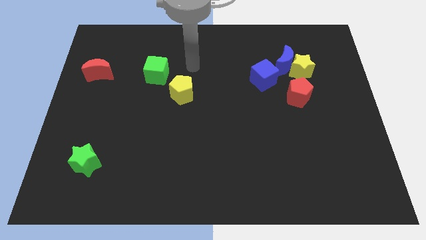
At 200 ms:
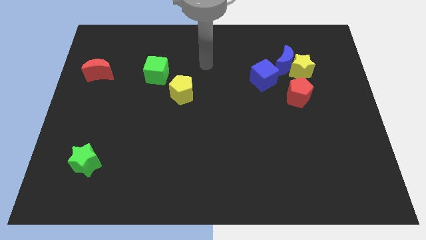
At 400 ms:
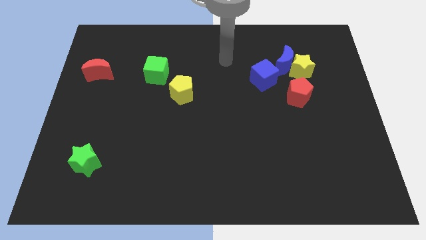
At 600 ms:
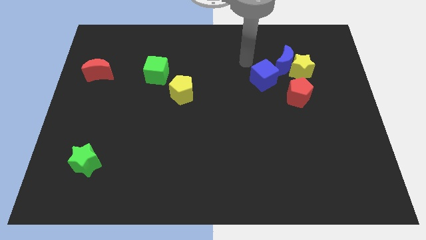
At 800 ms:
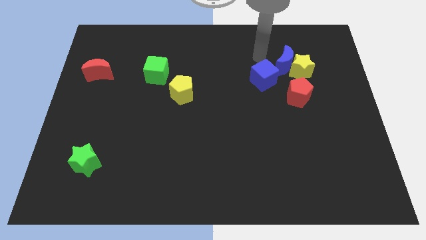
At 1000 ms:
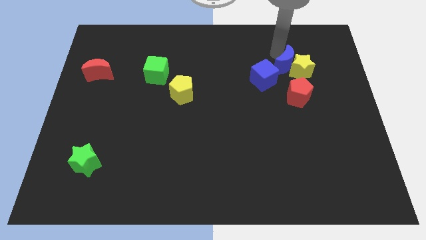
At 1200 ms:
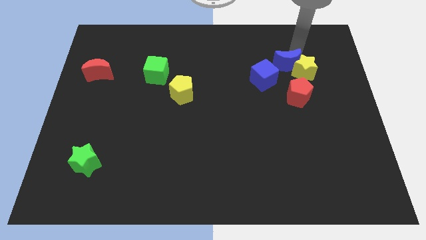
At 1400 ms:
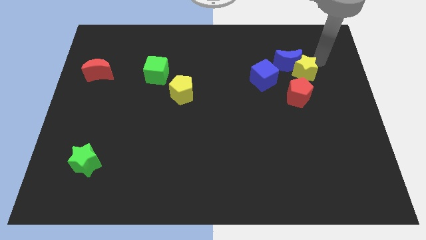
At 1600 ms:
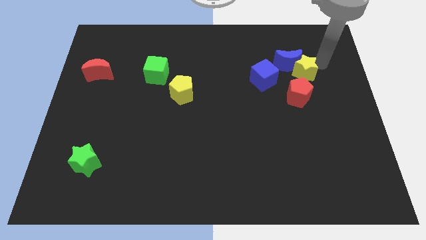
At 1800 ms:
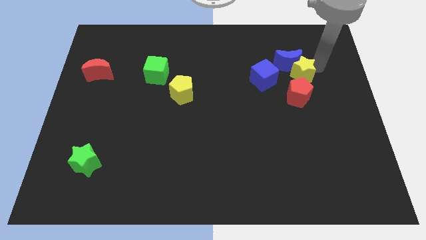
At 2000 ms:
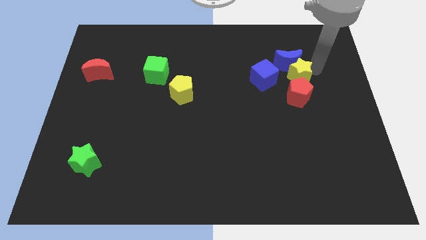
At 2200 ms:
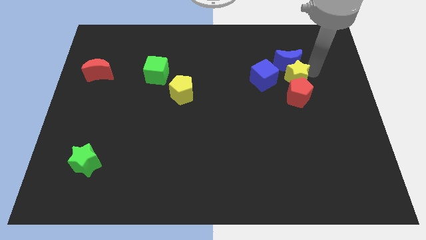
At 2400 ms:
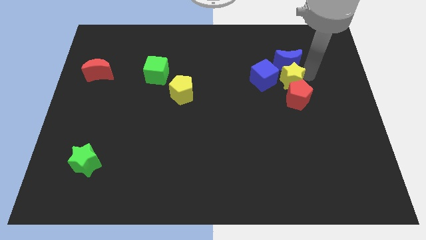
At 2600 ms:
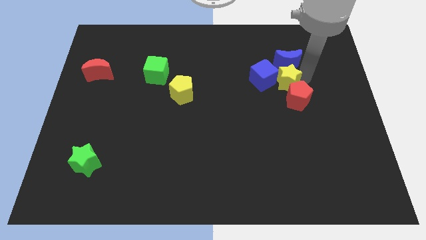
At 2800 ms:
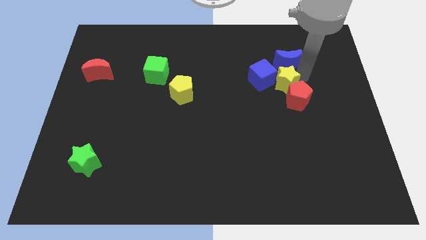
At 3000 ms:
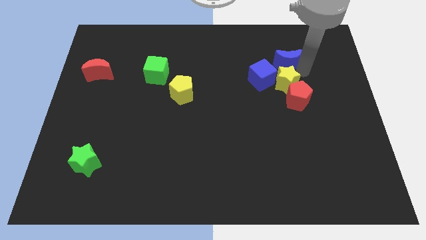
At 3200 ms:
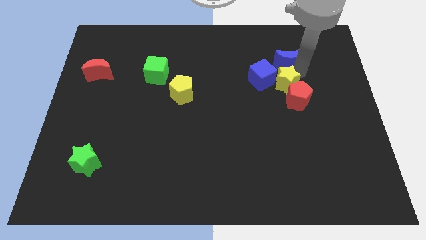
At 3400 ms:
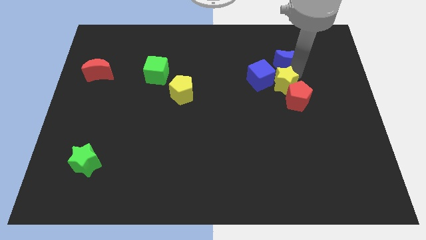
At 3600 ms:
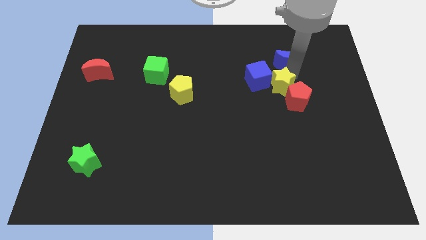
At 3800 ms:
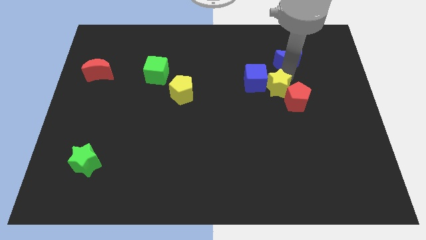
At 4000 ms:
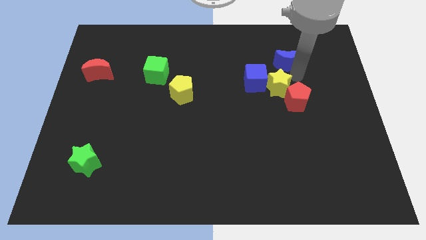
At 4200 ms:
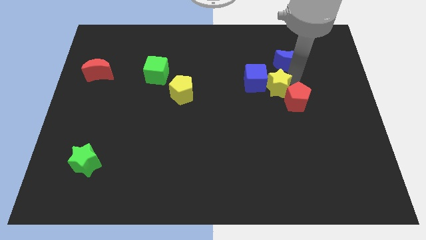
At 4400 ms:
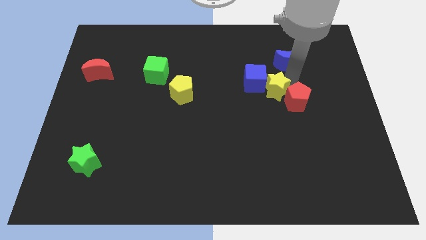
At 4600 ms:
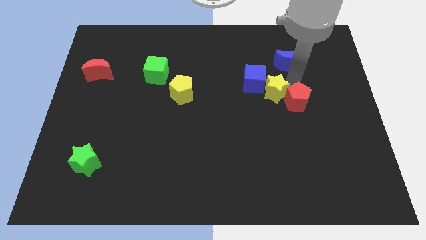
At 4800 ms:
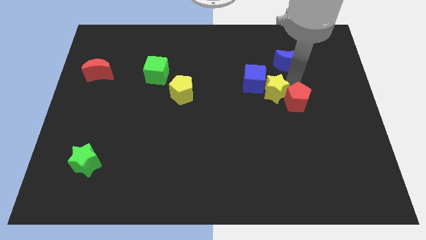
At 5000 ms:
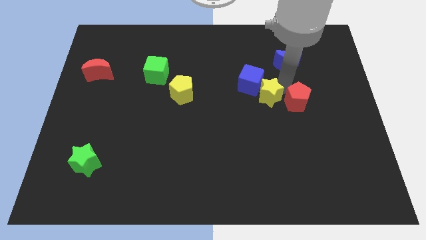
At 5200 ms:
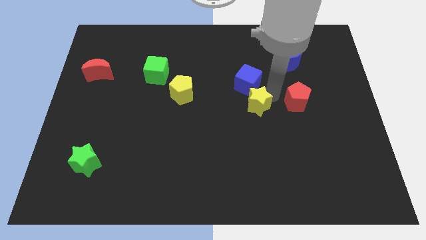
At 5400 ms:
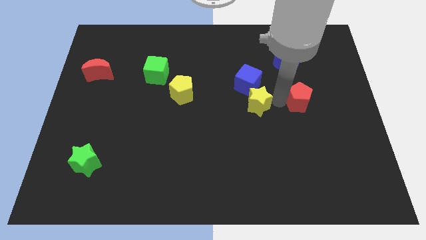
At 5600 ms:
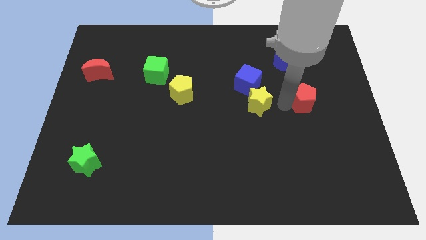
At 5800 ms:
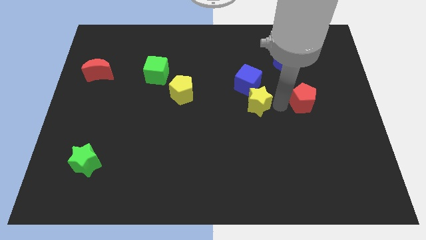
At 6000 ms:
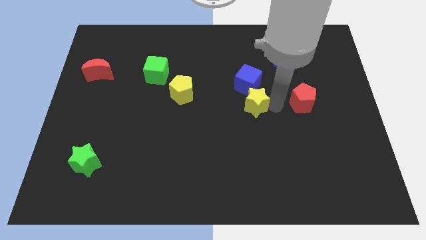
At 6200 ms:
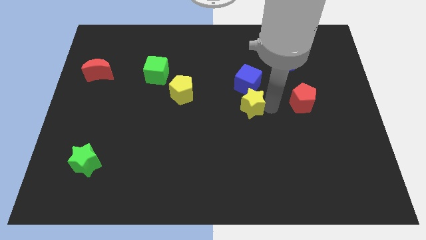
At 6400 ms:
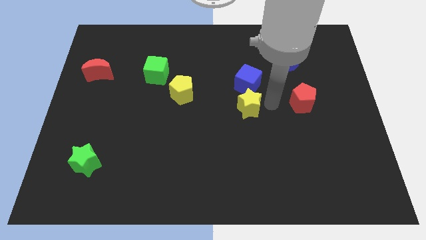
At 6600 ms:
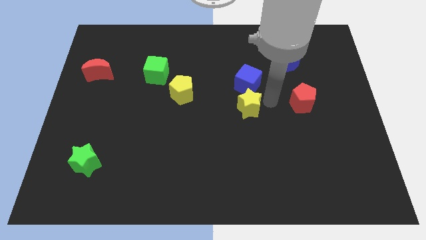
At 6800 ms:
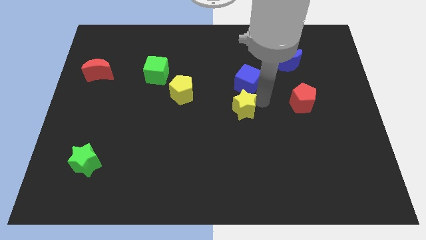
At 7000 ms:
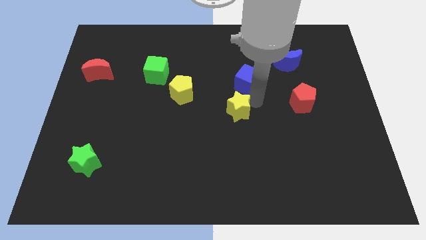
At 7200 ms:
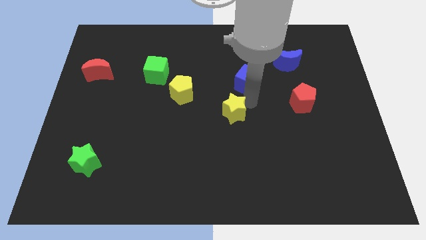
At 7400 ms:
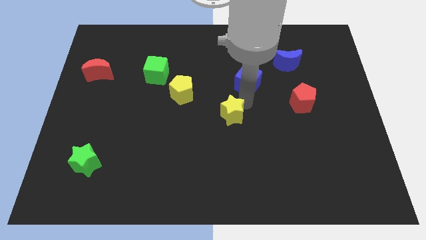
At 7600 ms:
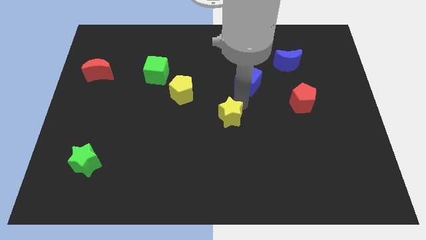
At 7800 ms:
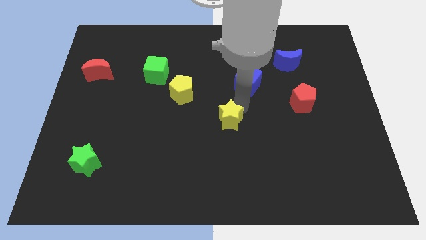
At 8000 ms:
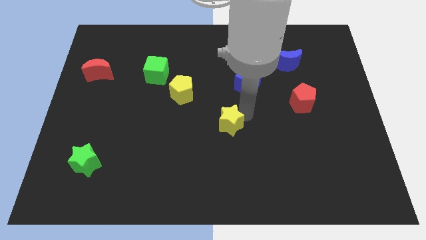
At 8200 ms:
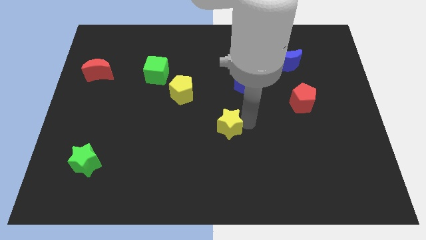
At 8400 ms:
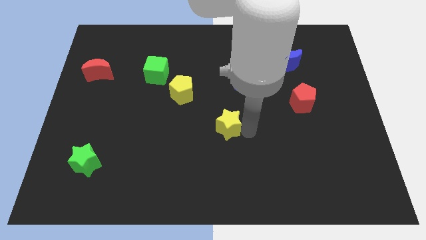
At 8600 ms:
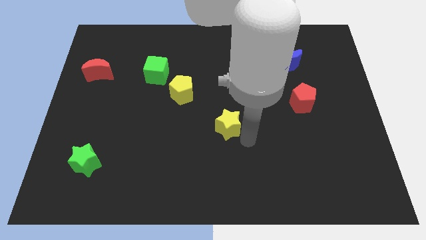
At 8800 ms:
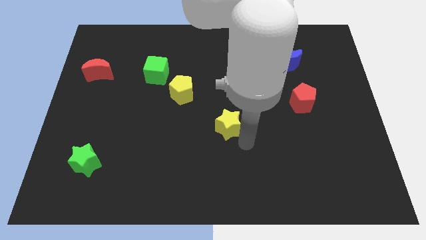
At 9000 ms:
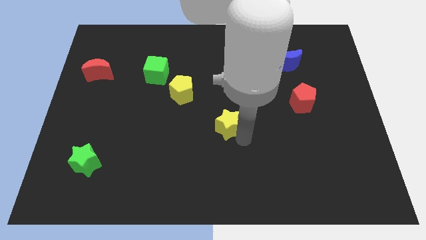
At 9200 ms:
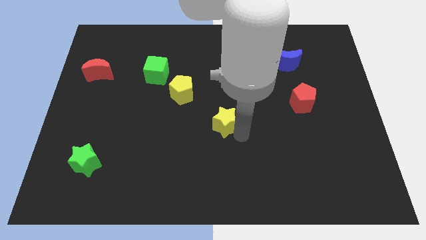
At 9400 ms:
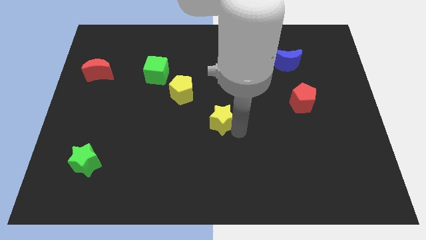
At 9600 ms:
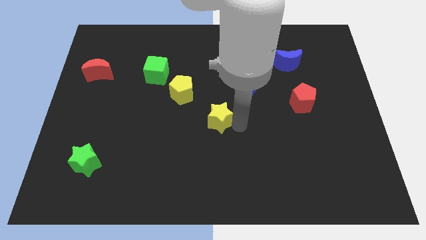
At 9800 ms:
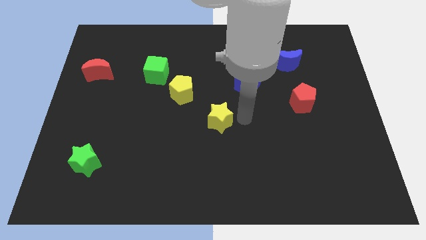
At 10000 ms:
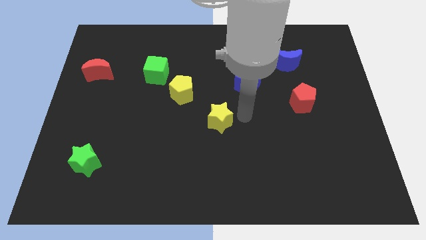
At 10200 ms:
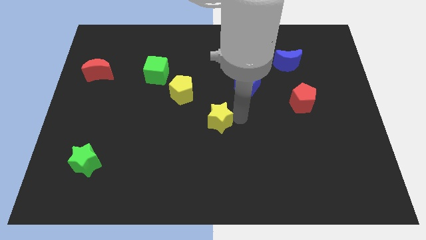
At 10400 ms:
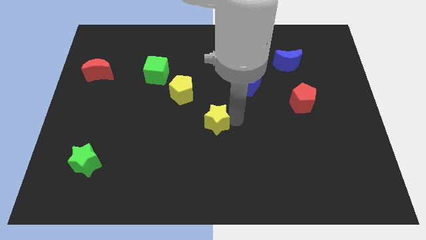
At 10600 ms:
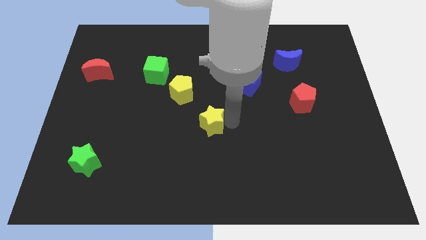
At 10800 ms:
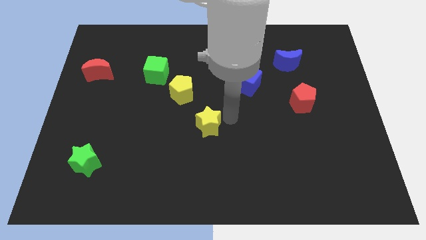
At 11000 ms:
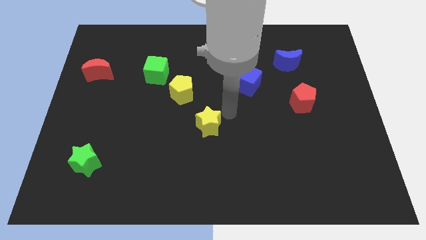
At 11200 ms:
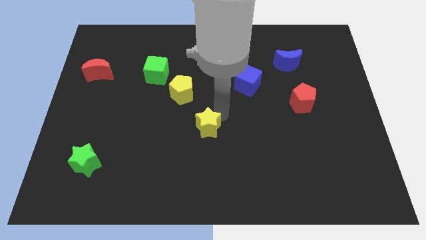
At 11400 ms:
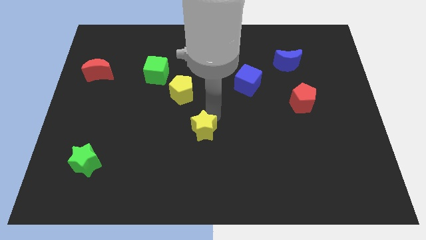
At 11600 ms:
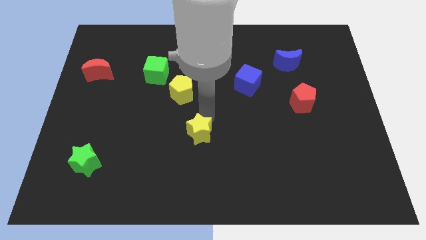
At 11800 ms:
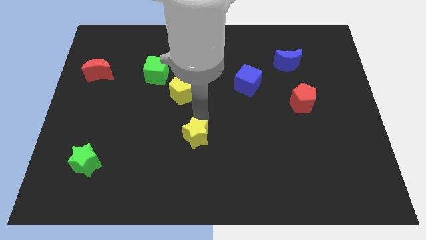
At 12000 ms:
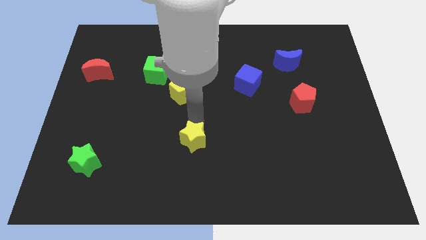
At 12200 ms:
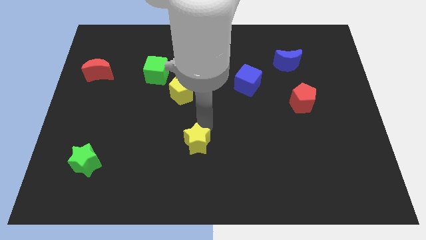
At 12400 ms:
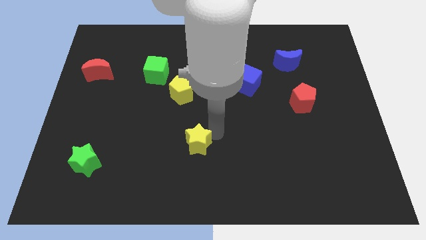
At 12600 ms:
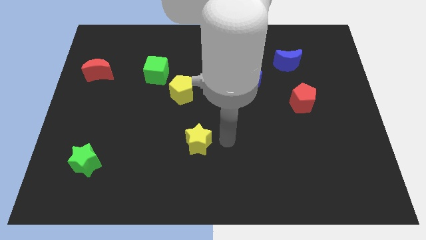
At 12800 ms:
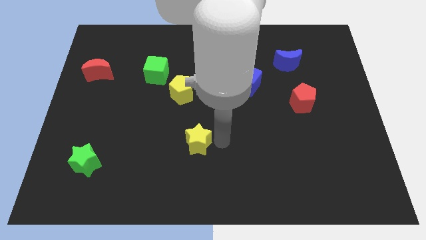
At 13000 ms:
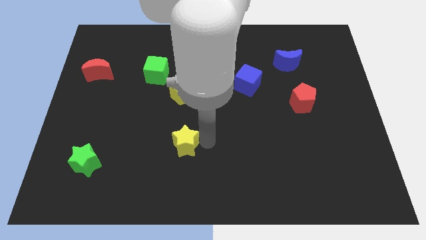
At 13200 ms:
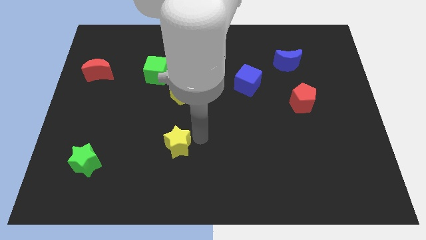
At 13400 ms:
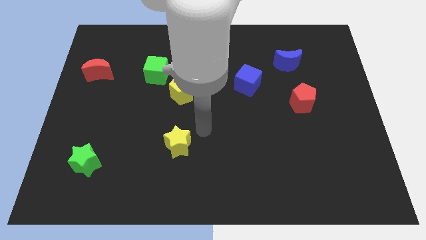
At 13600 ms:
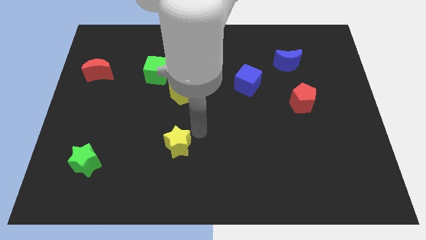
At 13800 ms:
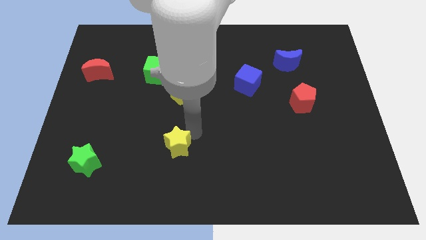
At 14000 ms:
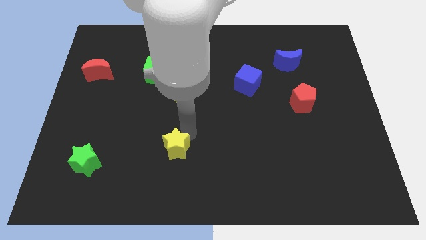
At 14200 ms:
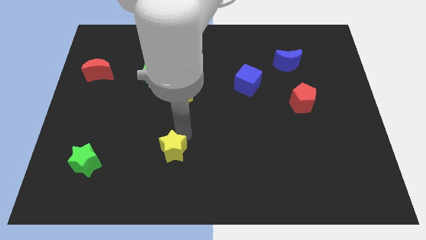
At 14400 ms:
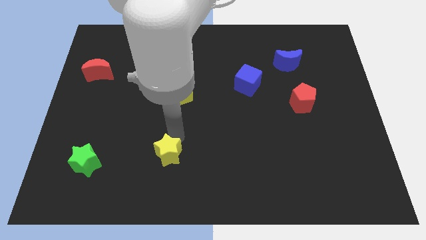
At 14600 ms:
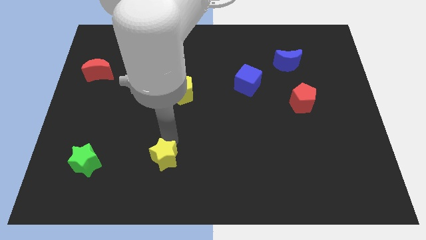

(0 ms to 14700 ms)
push the yellow star to the right side of the green star
